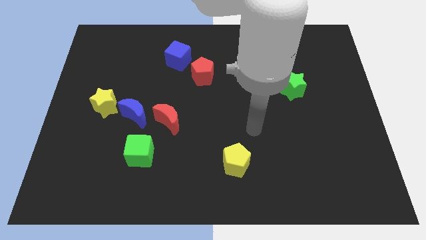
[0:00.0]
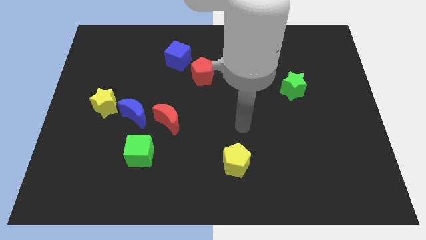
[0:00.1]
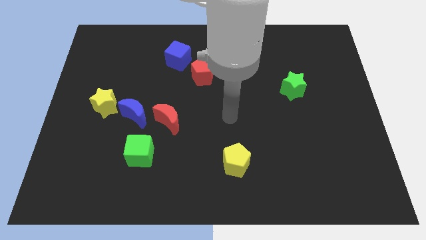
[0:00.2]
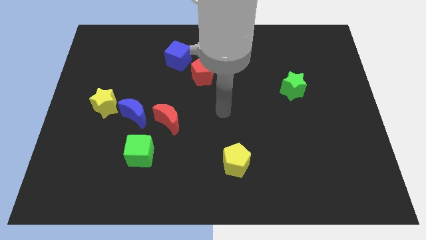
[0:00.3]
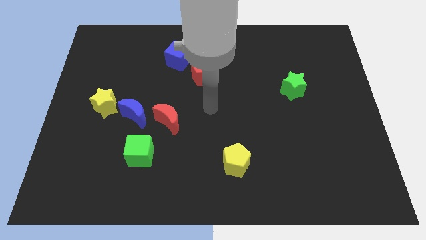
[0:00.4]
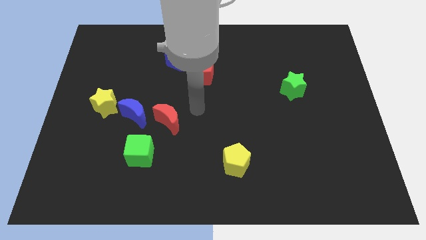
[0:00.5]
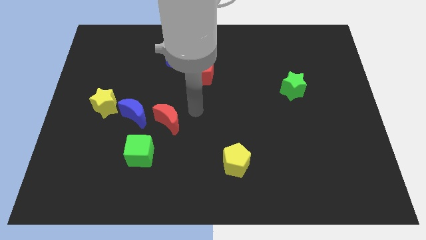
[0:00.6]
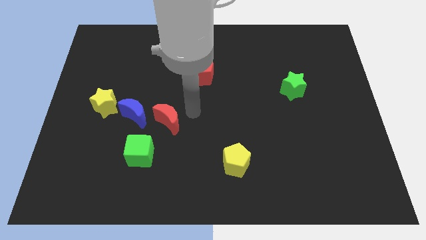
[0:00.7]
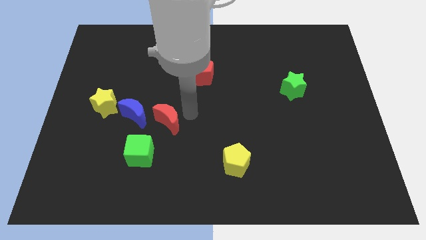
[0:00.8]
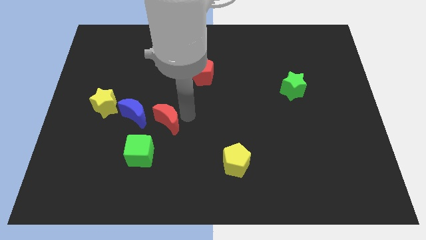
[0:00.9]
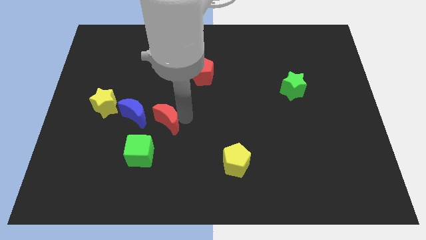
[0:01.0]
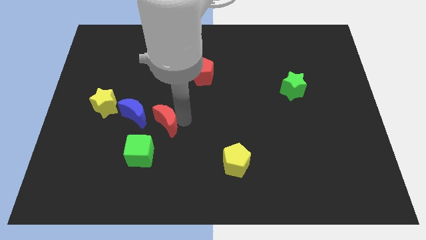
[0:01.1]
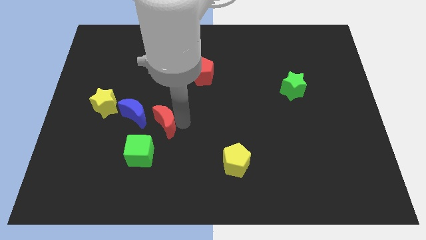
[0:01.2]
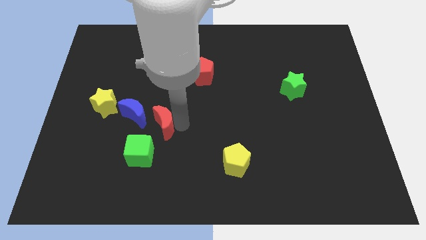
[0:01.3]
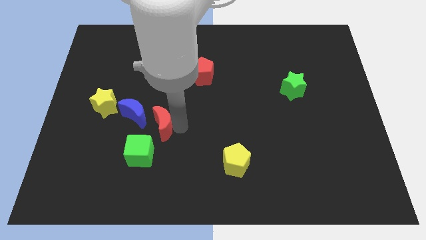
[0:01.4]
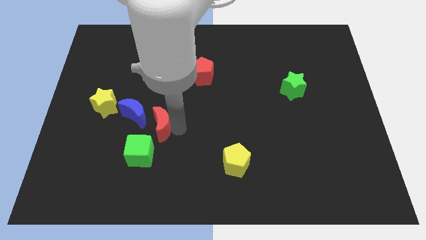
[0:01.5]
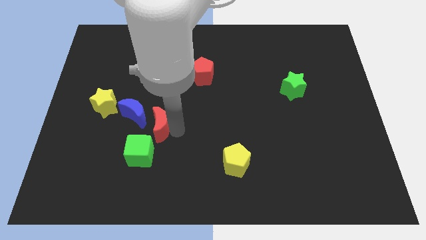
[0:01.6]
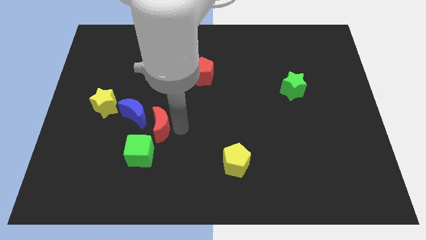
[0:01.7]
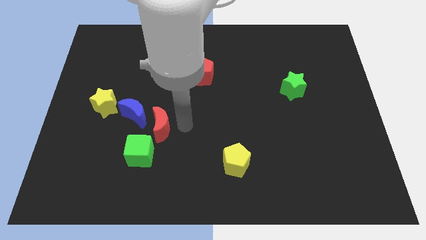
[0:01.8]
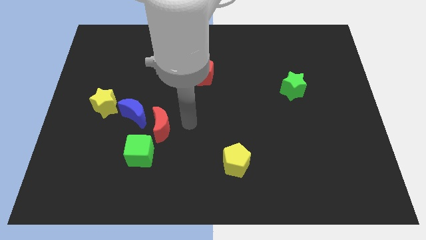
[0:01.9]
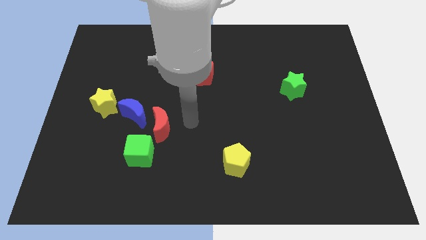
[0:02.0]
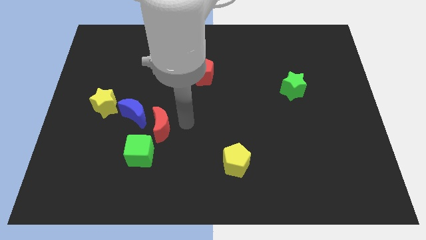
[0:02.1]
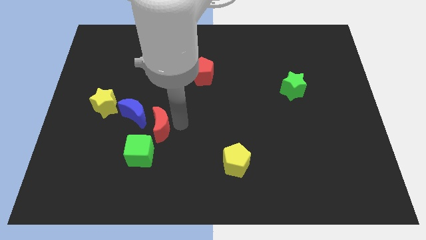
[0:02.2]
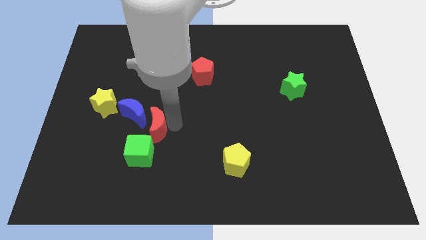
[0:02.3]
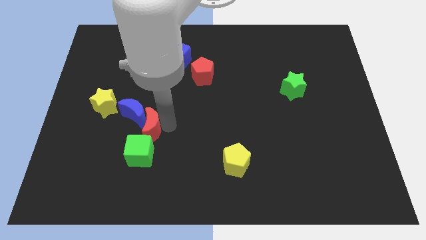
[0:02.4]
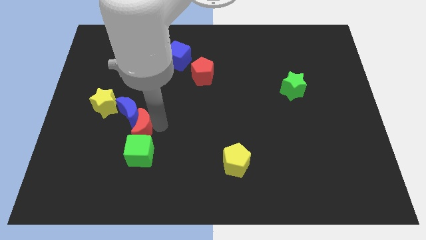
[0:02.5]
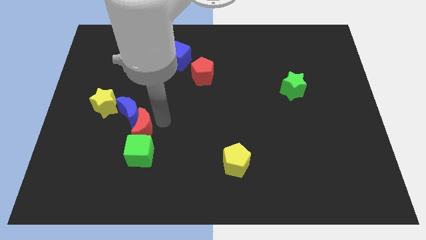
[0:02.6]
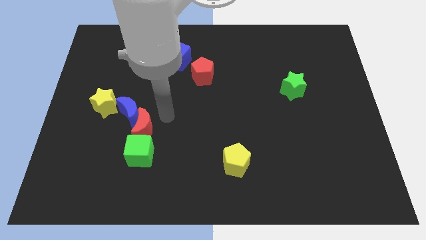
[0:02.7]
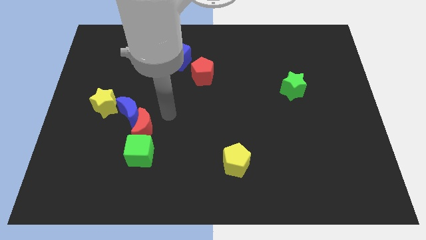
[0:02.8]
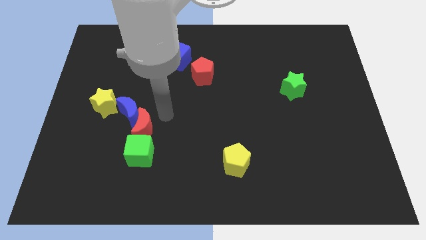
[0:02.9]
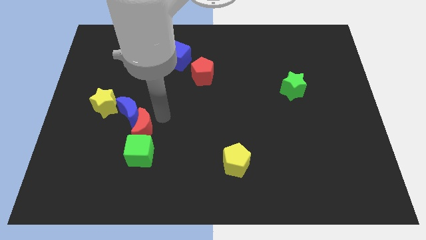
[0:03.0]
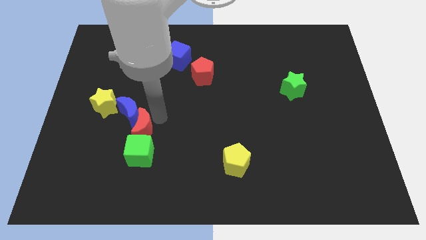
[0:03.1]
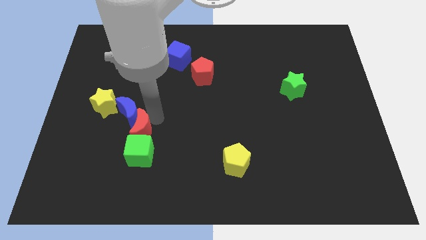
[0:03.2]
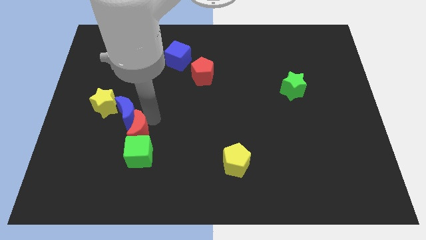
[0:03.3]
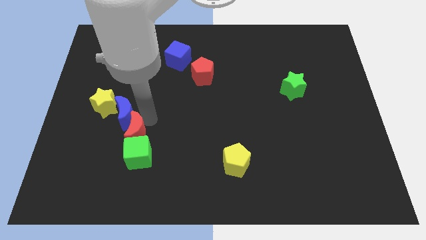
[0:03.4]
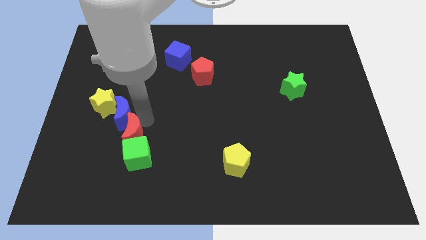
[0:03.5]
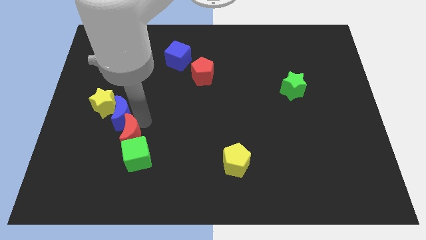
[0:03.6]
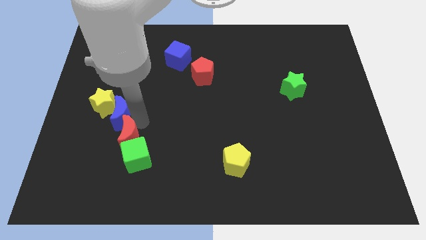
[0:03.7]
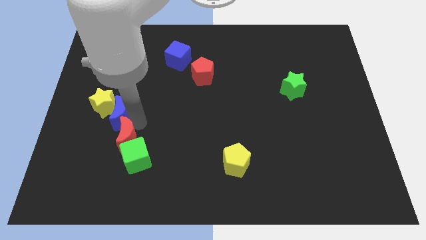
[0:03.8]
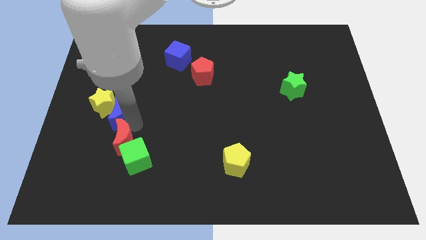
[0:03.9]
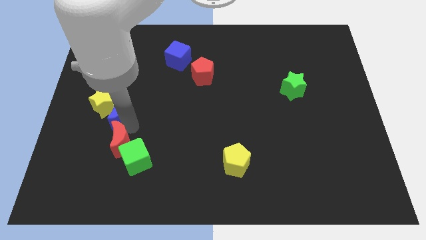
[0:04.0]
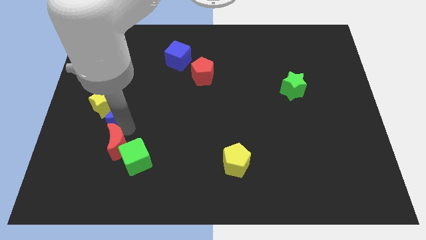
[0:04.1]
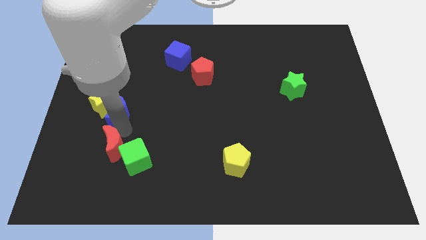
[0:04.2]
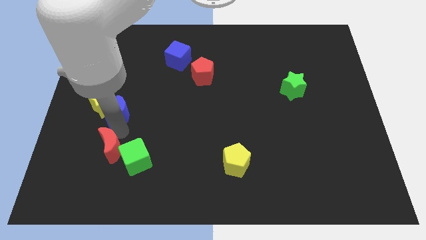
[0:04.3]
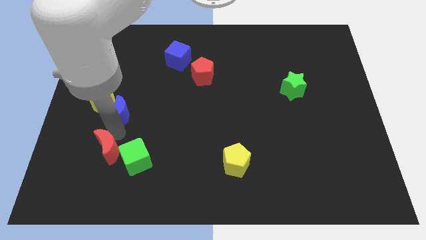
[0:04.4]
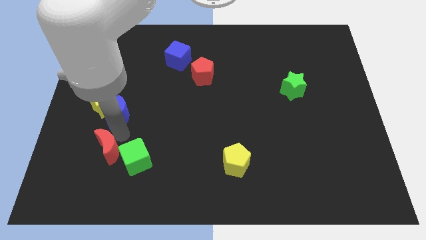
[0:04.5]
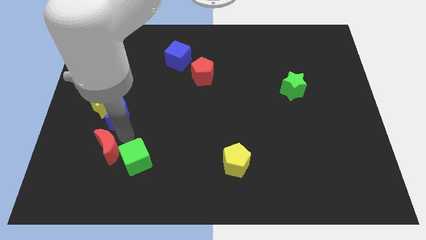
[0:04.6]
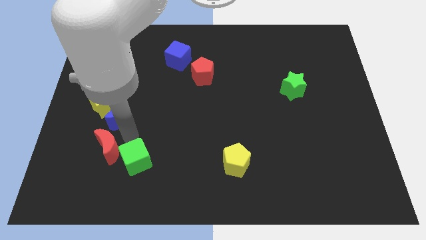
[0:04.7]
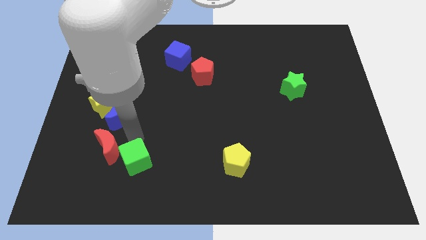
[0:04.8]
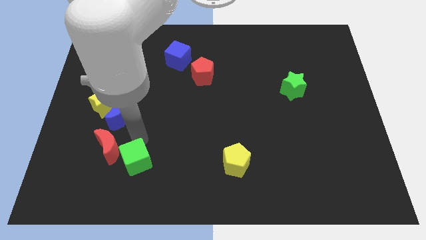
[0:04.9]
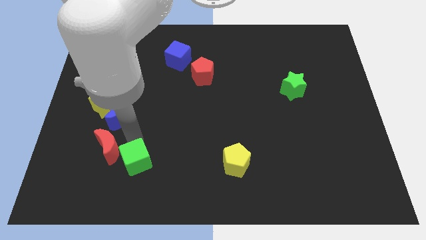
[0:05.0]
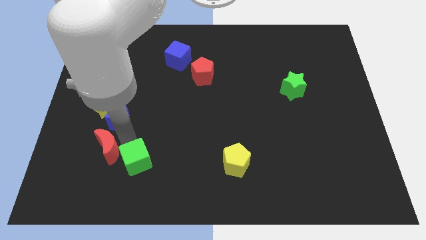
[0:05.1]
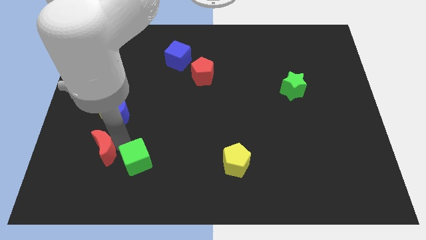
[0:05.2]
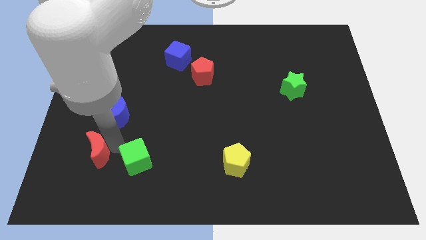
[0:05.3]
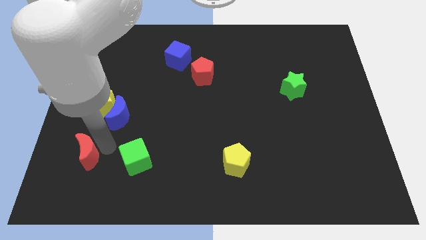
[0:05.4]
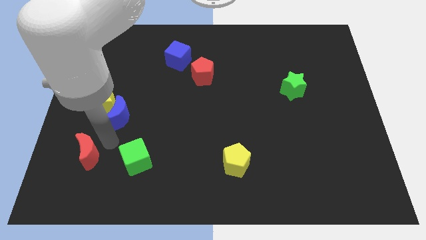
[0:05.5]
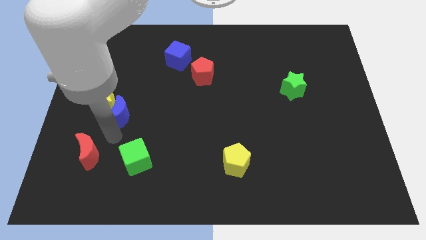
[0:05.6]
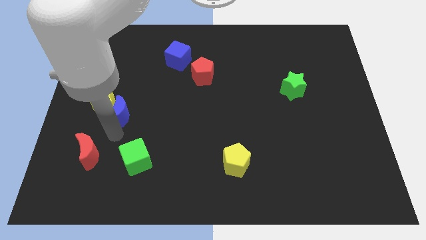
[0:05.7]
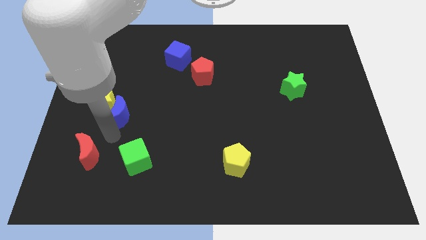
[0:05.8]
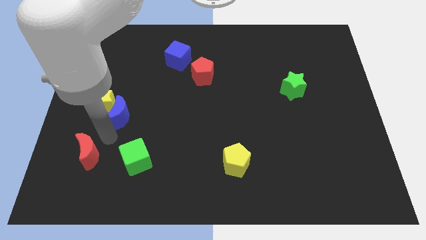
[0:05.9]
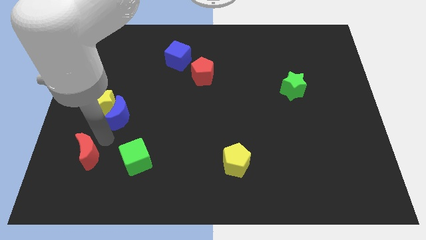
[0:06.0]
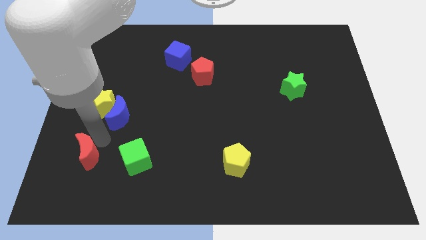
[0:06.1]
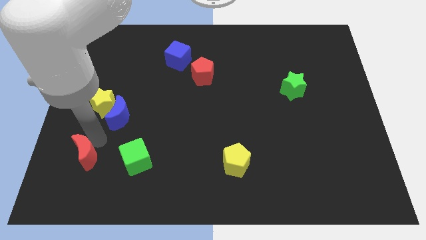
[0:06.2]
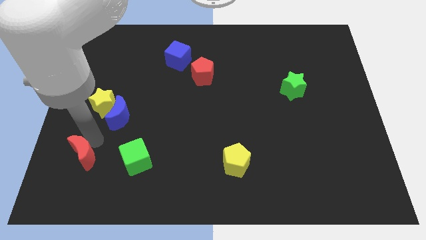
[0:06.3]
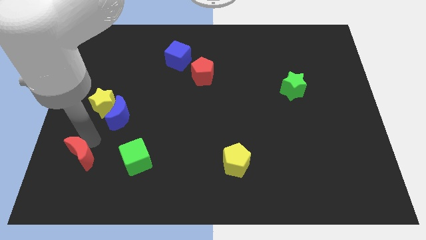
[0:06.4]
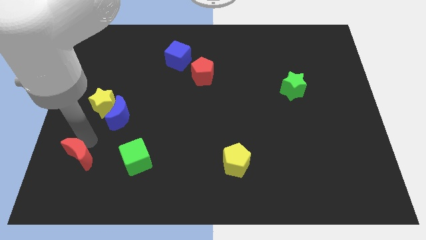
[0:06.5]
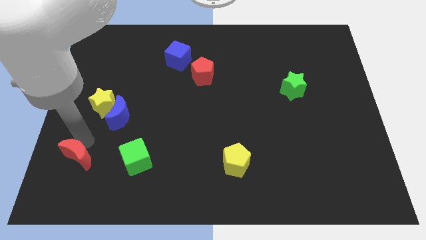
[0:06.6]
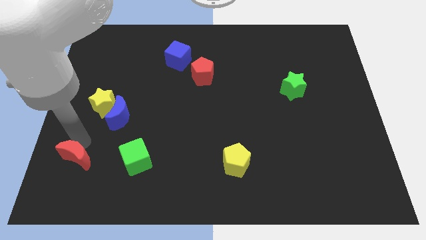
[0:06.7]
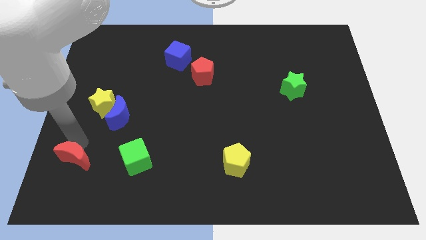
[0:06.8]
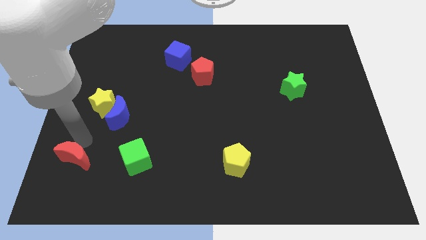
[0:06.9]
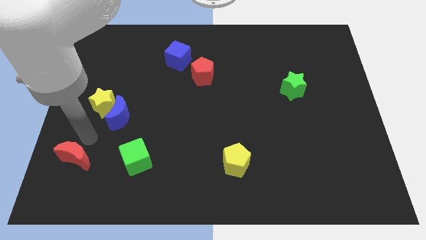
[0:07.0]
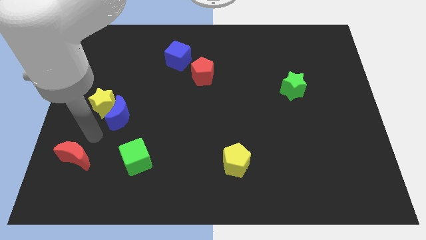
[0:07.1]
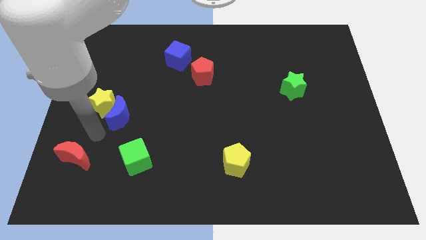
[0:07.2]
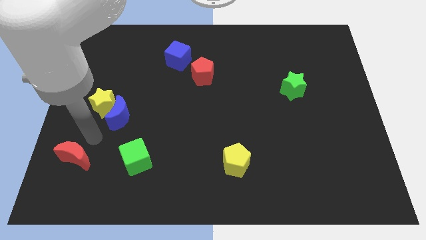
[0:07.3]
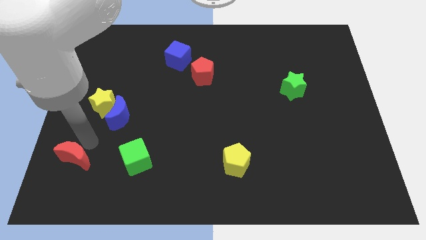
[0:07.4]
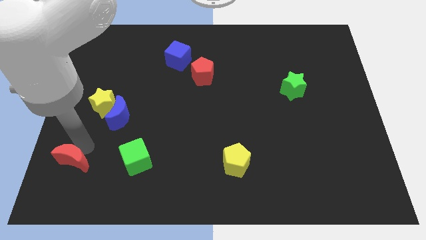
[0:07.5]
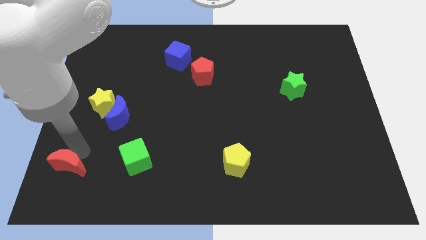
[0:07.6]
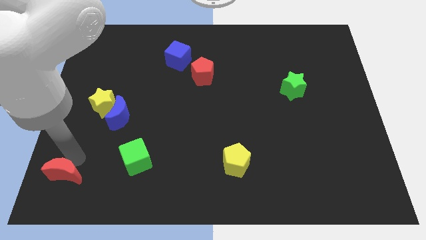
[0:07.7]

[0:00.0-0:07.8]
slide the red moon to the bottom left of the board
